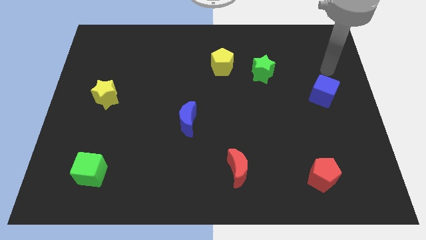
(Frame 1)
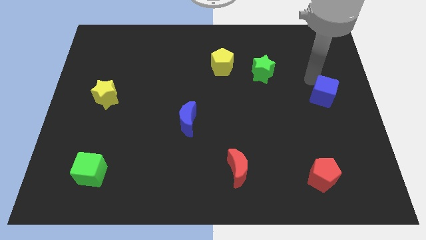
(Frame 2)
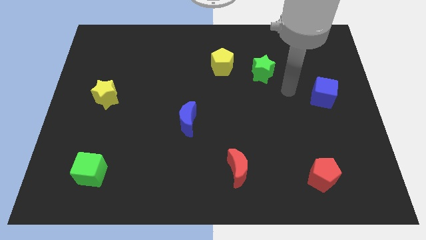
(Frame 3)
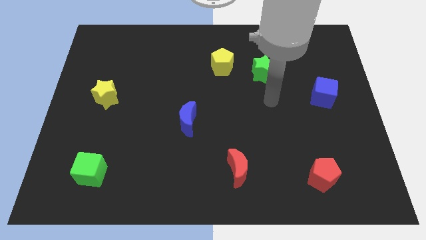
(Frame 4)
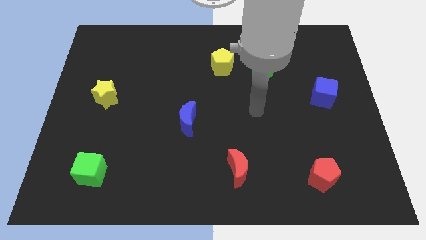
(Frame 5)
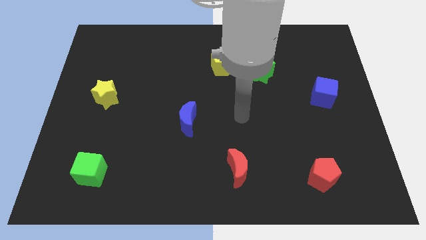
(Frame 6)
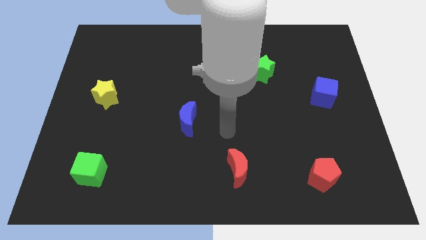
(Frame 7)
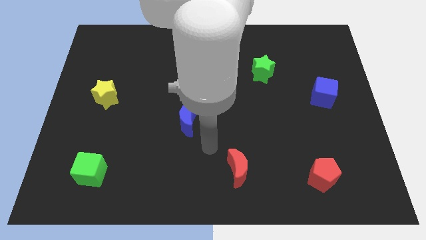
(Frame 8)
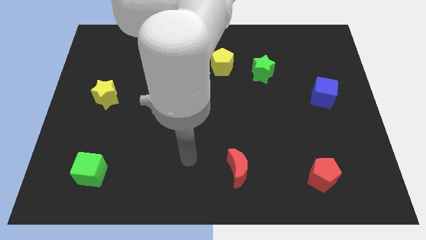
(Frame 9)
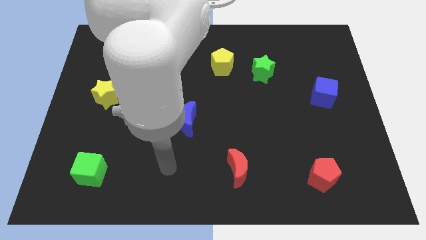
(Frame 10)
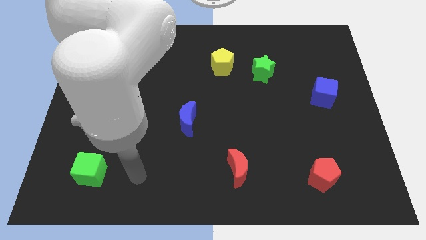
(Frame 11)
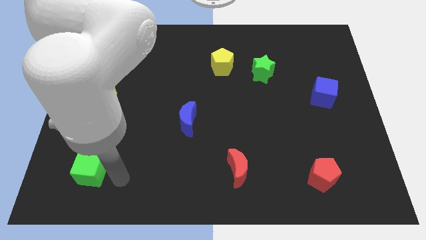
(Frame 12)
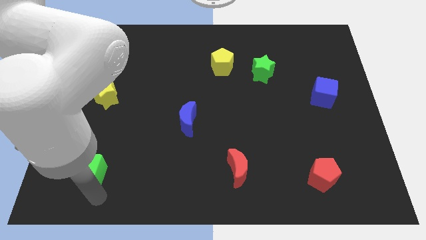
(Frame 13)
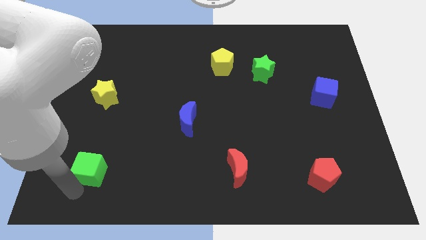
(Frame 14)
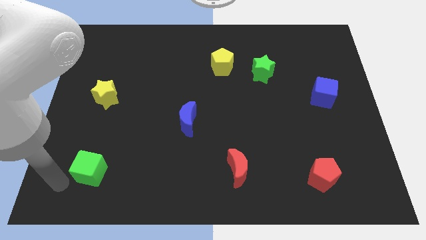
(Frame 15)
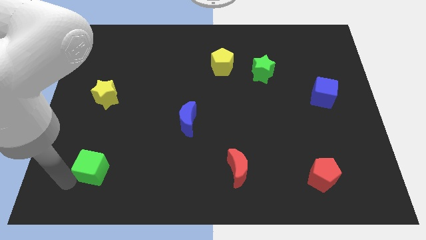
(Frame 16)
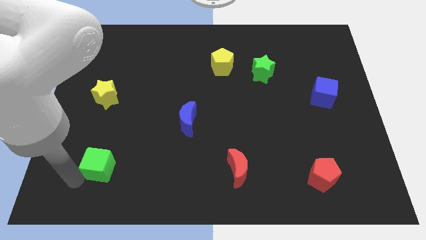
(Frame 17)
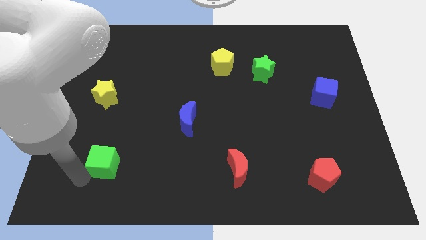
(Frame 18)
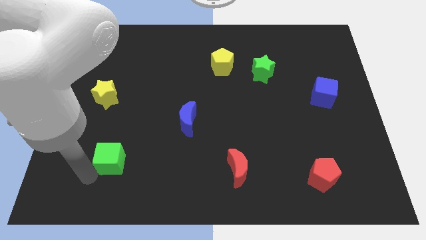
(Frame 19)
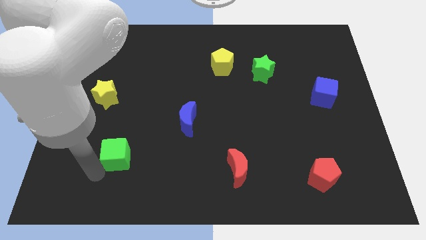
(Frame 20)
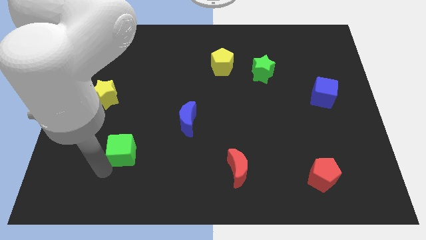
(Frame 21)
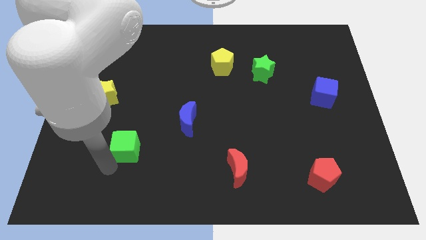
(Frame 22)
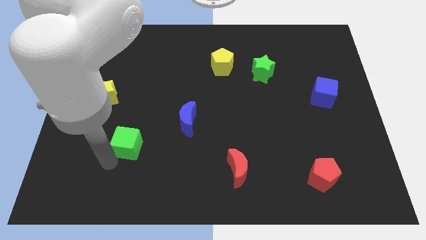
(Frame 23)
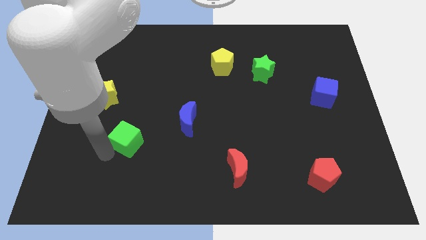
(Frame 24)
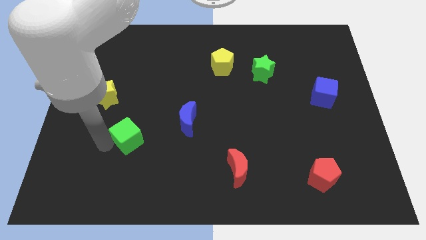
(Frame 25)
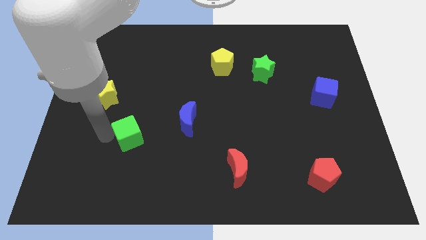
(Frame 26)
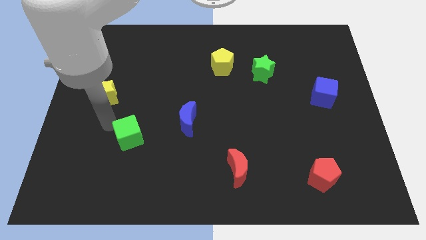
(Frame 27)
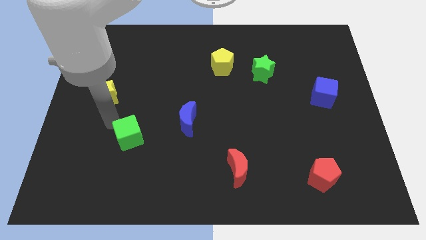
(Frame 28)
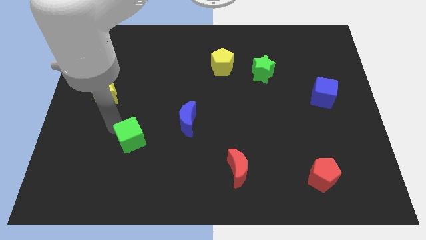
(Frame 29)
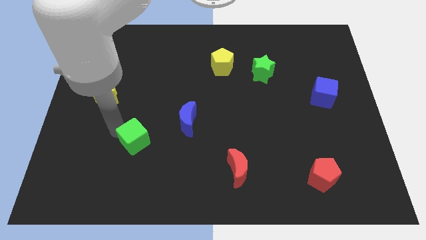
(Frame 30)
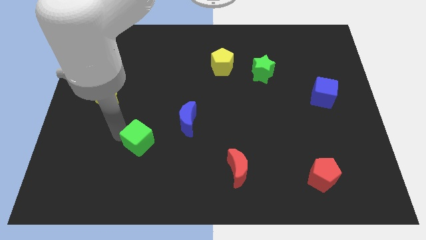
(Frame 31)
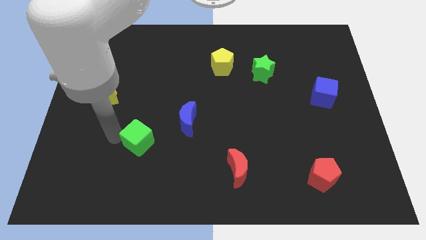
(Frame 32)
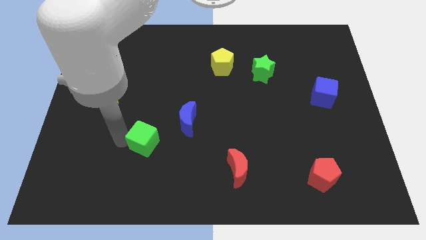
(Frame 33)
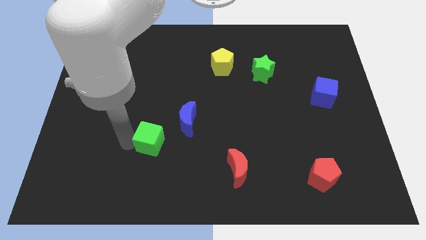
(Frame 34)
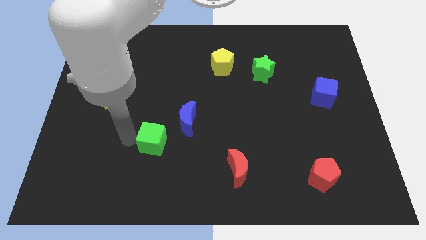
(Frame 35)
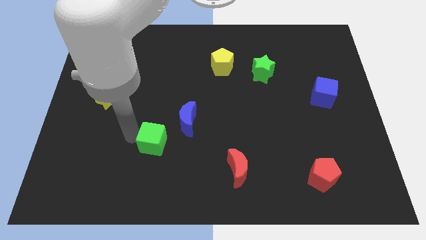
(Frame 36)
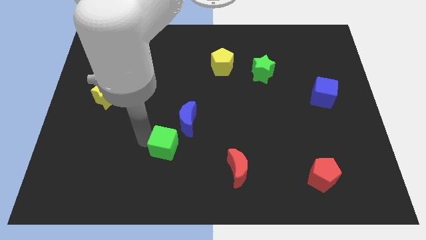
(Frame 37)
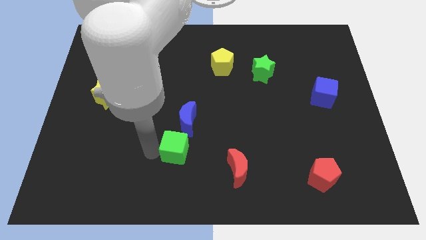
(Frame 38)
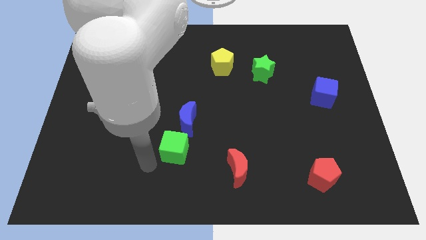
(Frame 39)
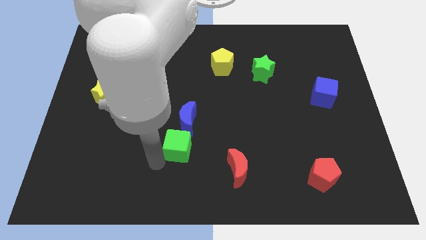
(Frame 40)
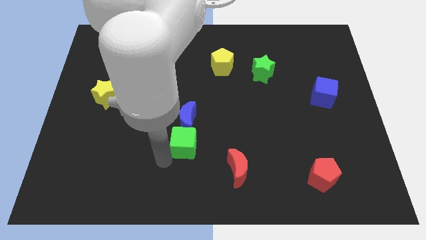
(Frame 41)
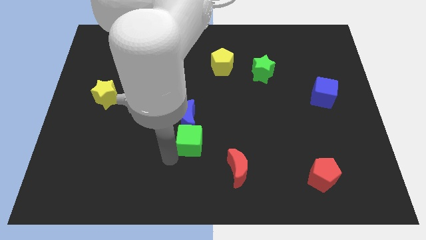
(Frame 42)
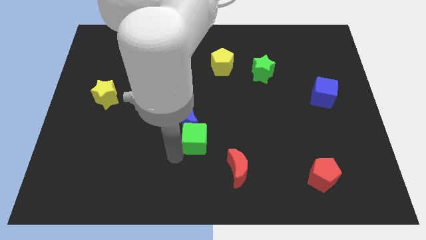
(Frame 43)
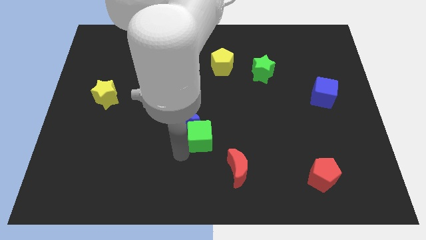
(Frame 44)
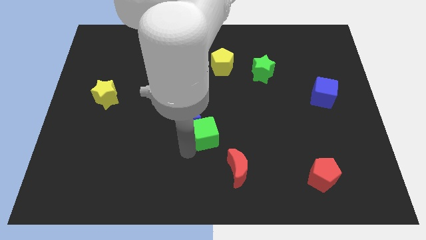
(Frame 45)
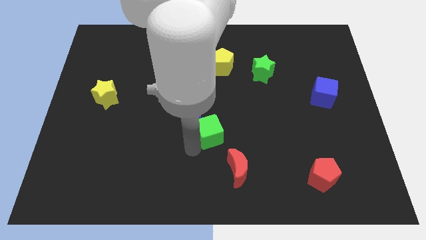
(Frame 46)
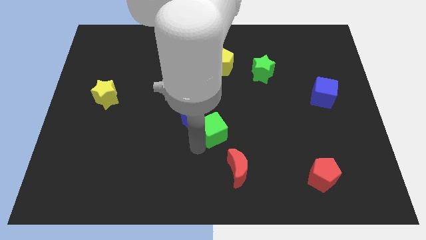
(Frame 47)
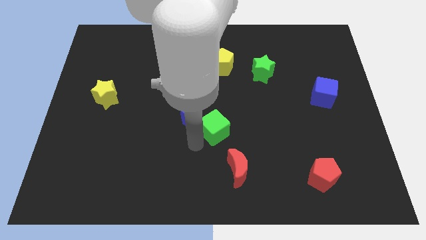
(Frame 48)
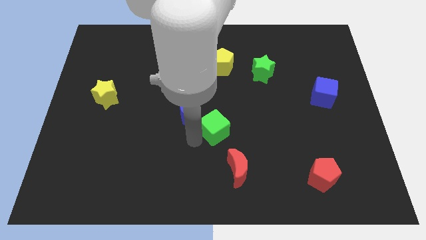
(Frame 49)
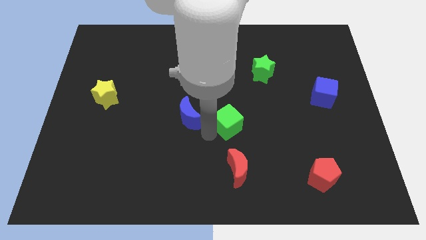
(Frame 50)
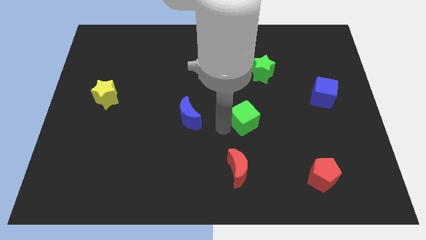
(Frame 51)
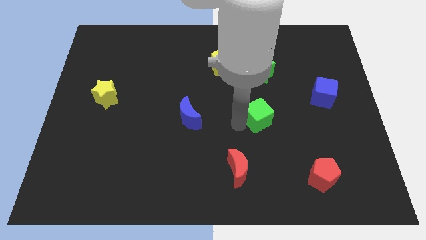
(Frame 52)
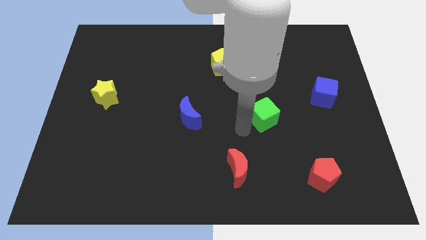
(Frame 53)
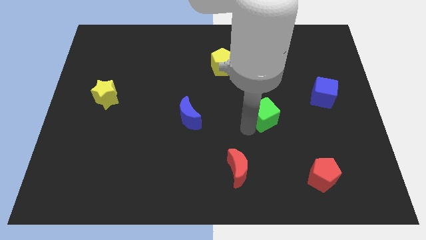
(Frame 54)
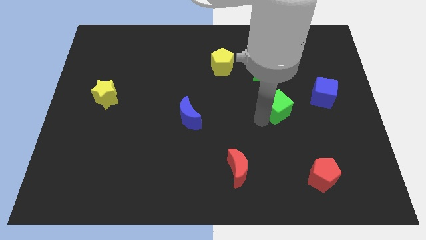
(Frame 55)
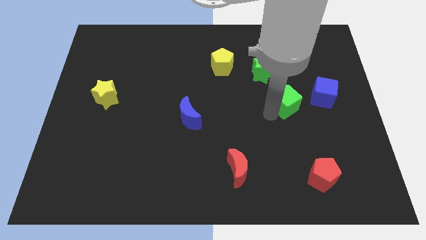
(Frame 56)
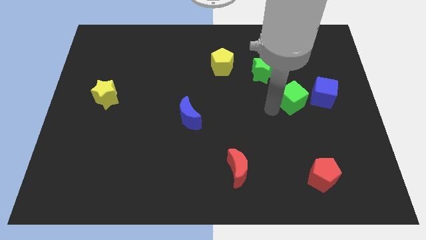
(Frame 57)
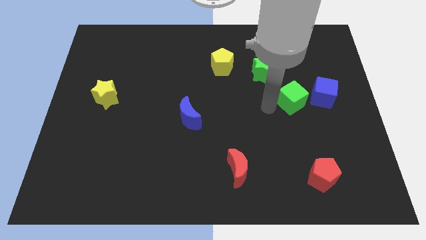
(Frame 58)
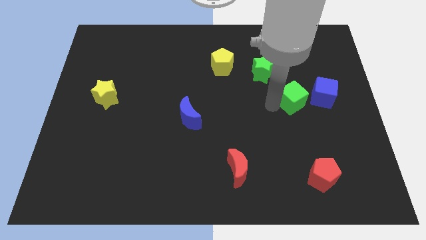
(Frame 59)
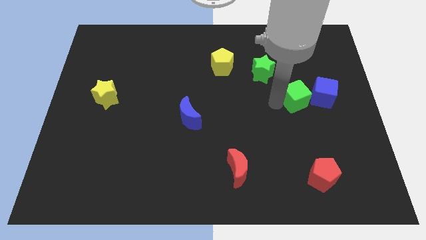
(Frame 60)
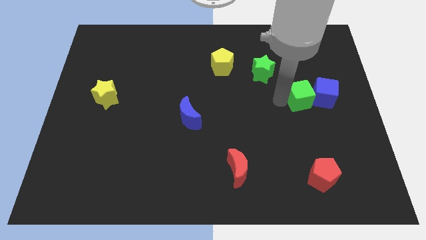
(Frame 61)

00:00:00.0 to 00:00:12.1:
push the green cube to the blue cube

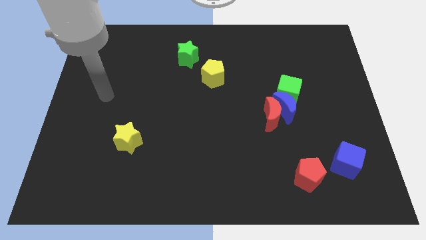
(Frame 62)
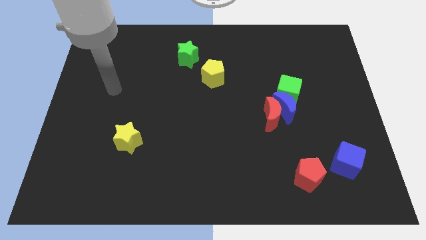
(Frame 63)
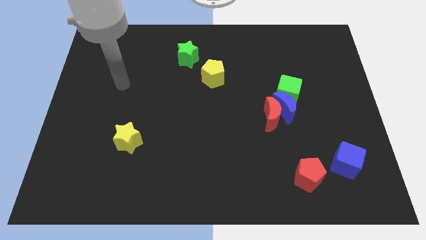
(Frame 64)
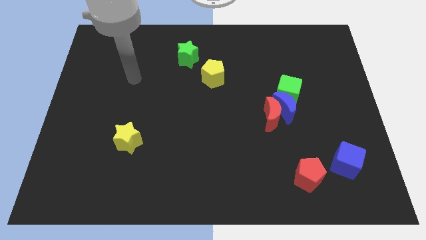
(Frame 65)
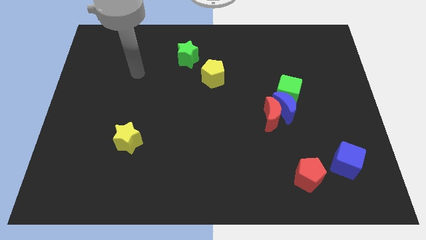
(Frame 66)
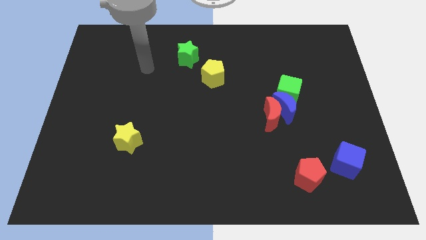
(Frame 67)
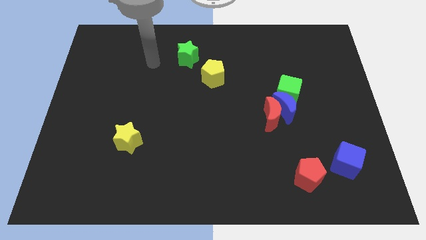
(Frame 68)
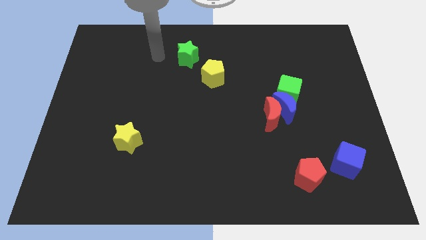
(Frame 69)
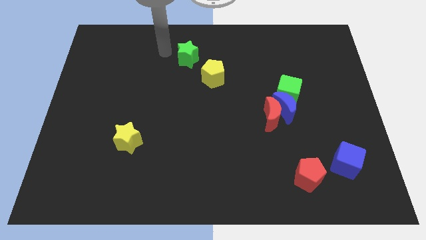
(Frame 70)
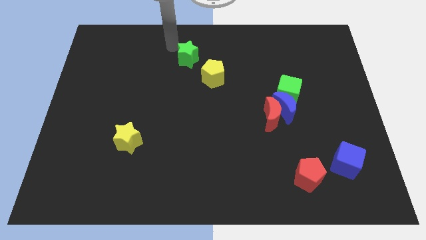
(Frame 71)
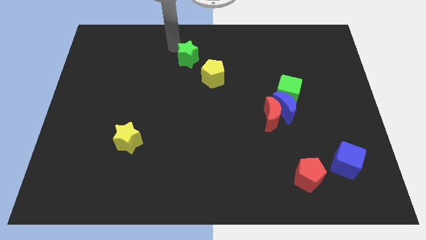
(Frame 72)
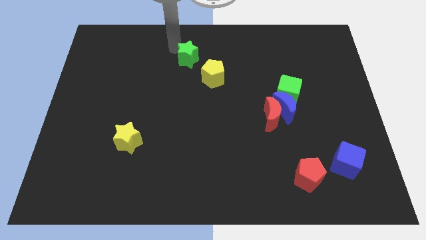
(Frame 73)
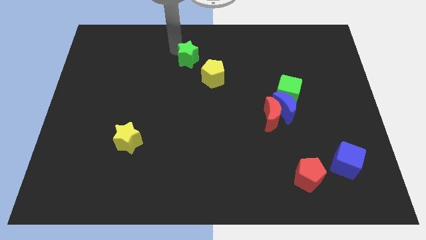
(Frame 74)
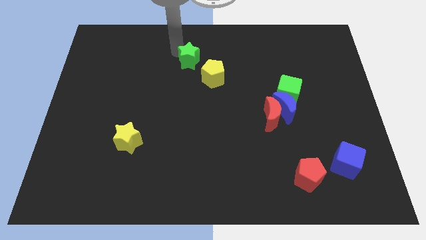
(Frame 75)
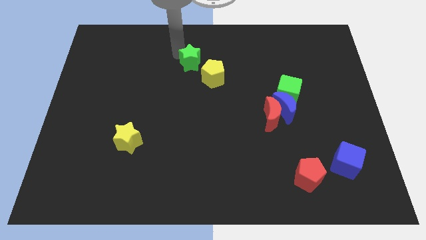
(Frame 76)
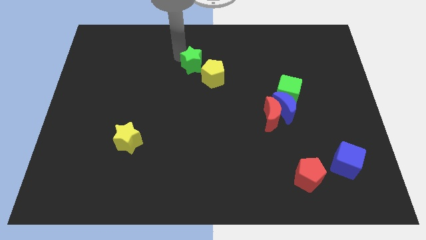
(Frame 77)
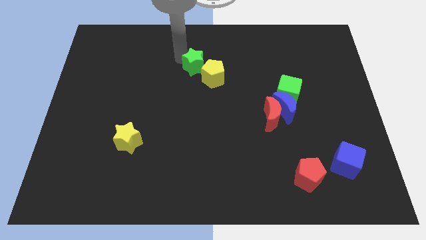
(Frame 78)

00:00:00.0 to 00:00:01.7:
put the green star next to the yellow pentagon

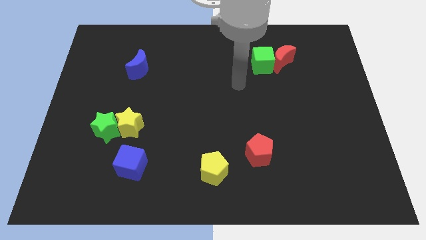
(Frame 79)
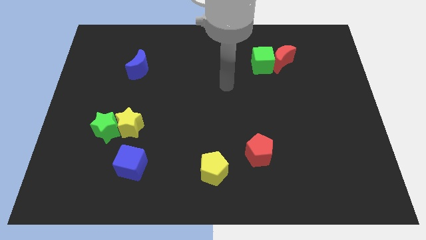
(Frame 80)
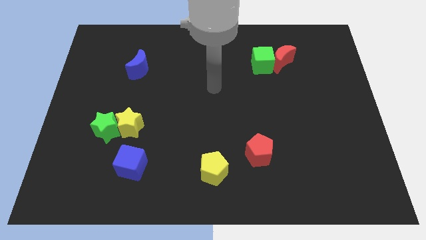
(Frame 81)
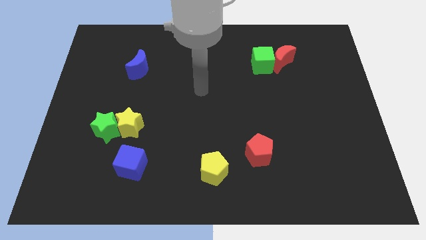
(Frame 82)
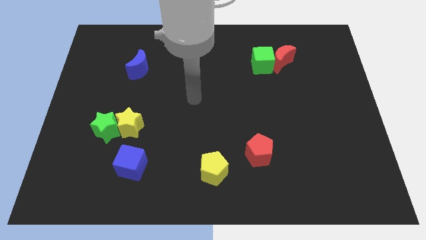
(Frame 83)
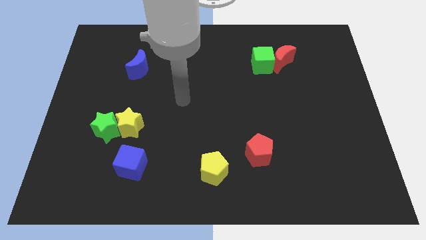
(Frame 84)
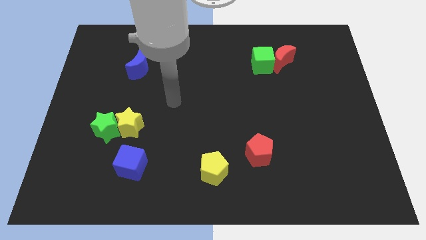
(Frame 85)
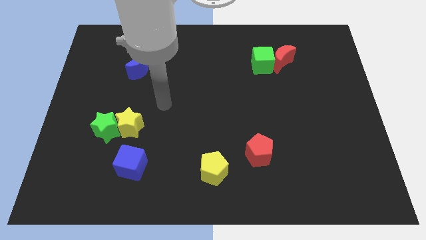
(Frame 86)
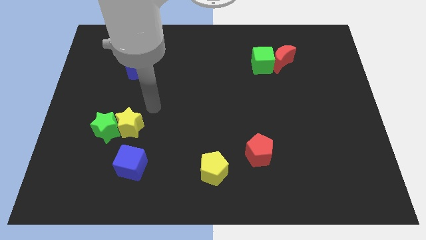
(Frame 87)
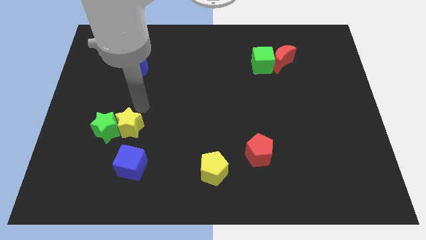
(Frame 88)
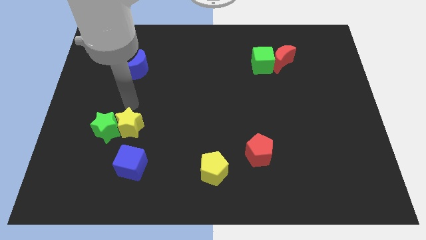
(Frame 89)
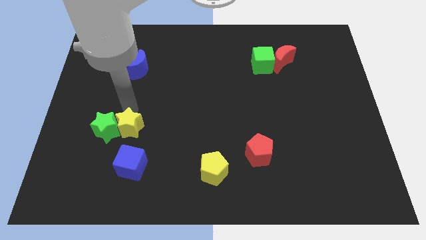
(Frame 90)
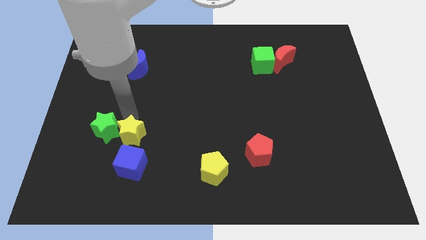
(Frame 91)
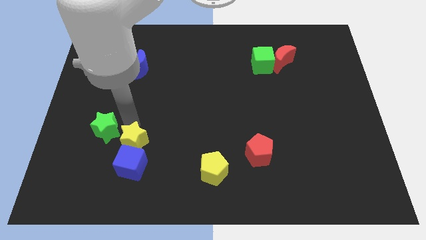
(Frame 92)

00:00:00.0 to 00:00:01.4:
move the yellow star to the blue cube
